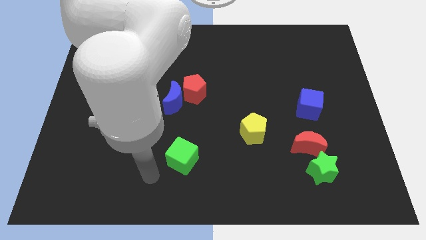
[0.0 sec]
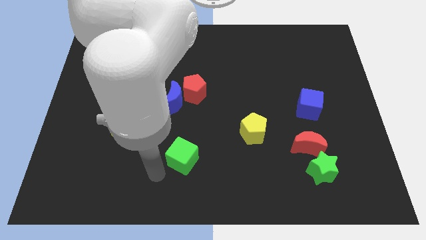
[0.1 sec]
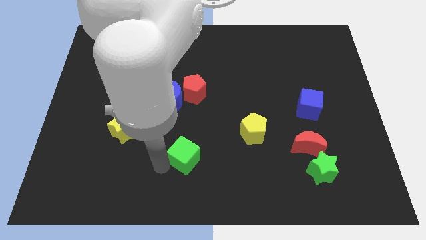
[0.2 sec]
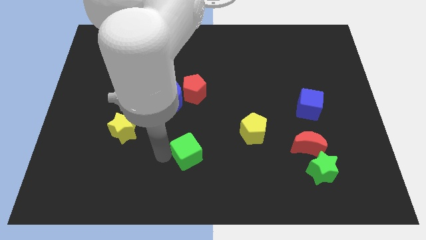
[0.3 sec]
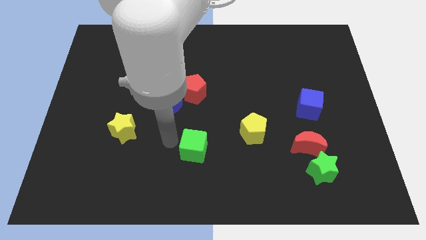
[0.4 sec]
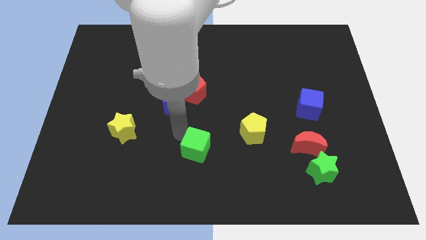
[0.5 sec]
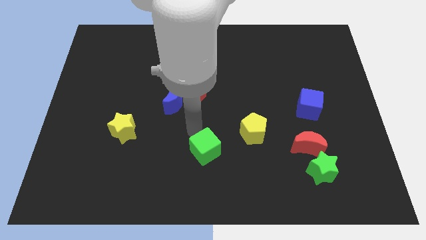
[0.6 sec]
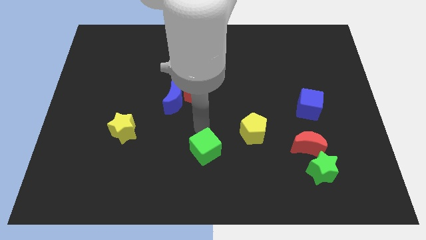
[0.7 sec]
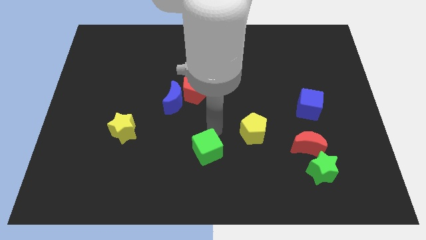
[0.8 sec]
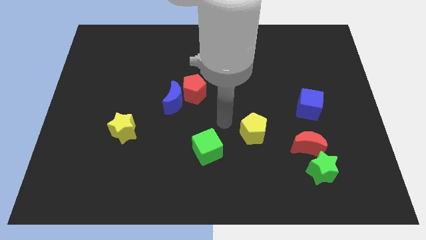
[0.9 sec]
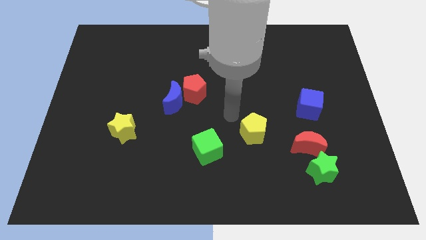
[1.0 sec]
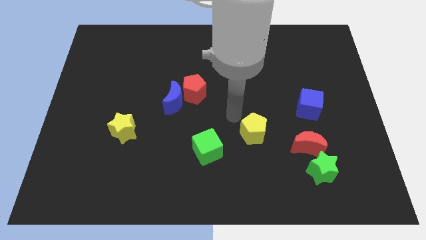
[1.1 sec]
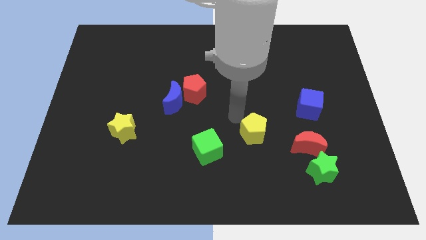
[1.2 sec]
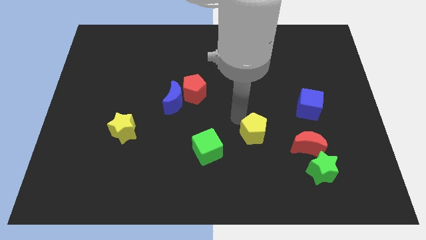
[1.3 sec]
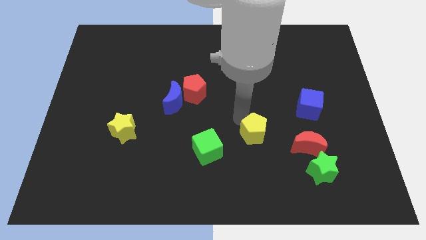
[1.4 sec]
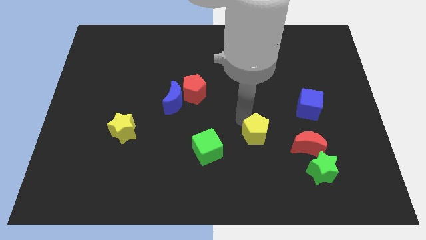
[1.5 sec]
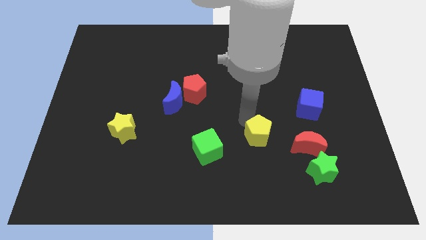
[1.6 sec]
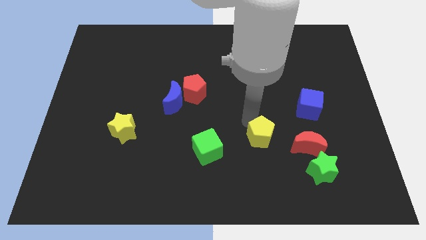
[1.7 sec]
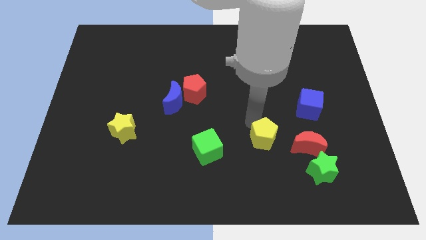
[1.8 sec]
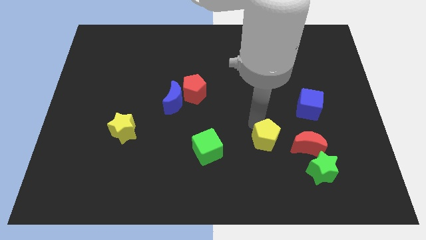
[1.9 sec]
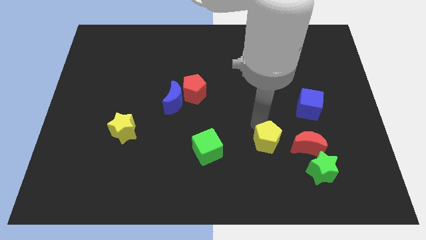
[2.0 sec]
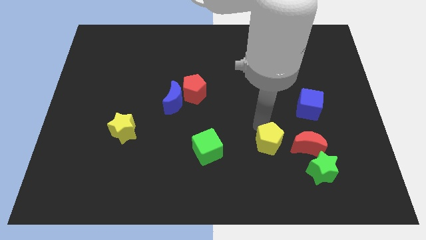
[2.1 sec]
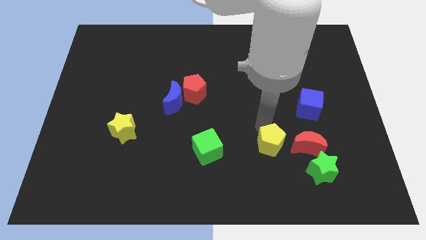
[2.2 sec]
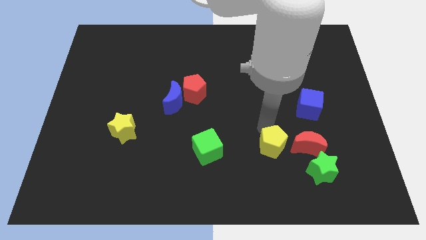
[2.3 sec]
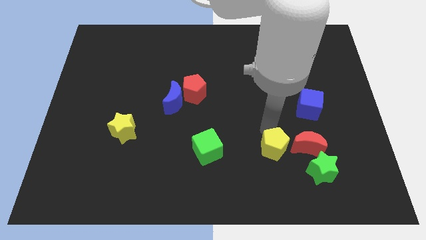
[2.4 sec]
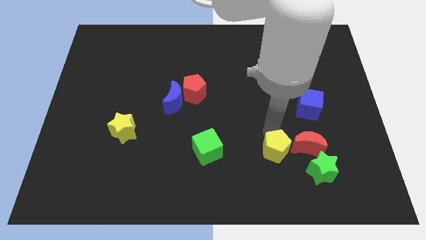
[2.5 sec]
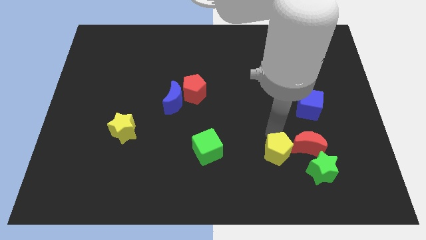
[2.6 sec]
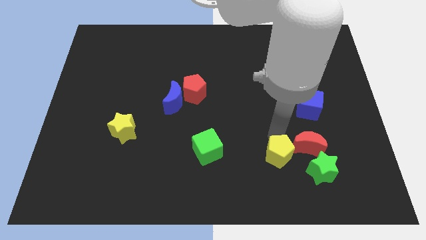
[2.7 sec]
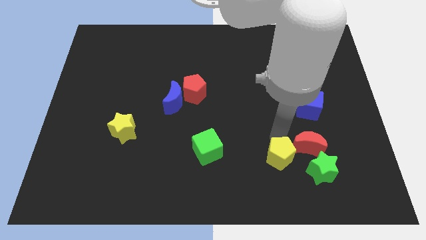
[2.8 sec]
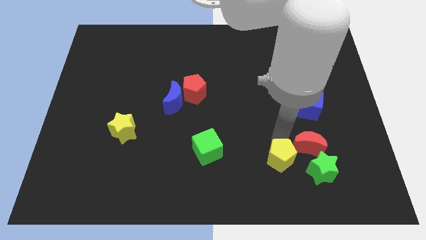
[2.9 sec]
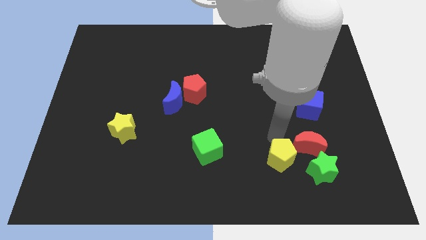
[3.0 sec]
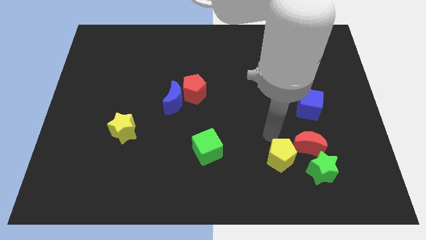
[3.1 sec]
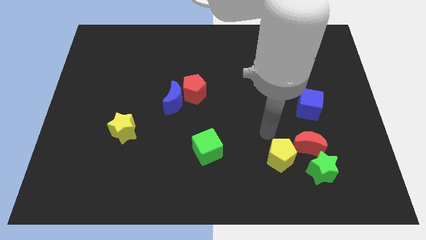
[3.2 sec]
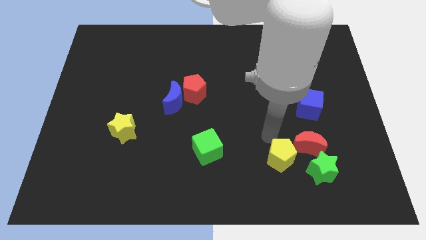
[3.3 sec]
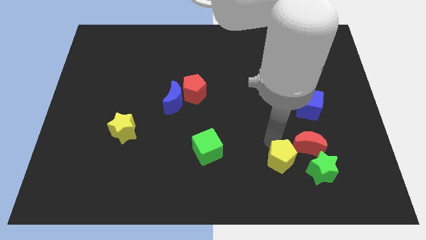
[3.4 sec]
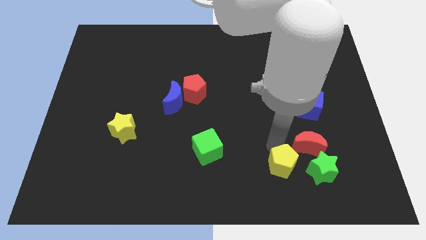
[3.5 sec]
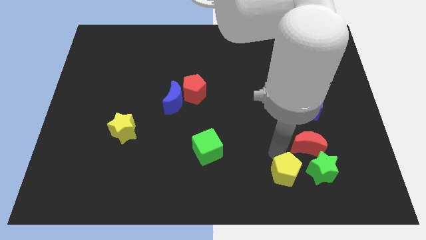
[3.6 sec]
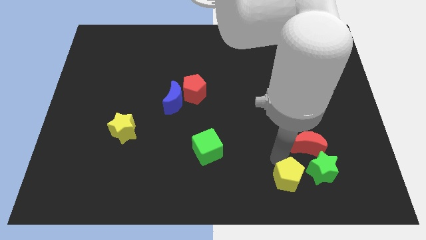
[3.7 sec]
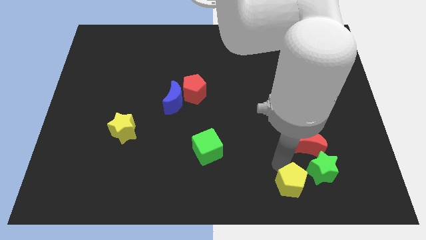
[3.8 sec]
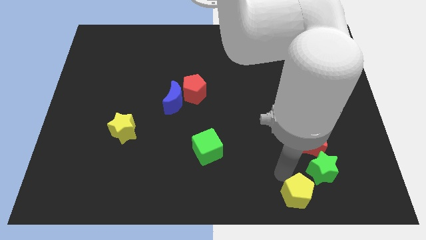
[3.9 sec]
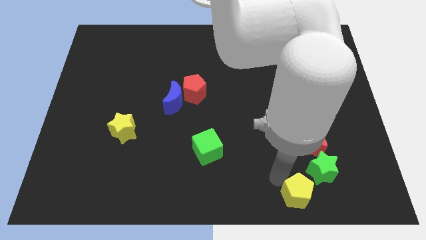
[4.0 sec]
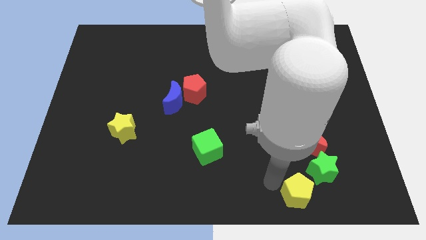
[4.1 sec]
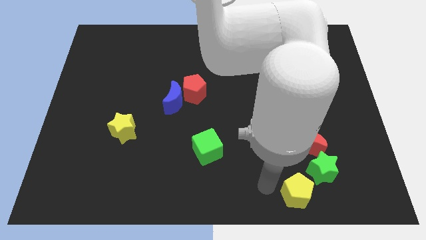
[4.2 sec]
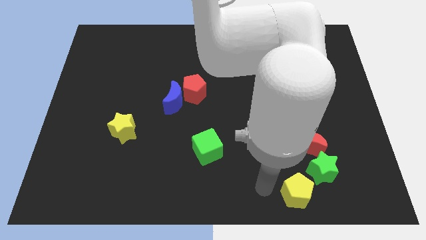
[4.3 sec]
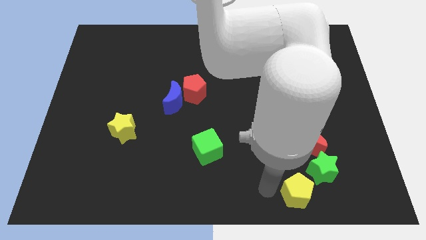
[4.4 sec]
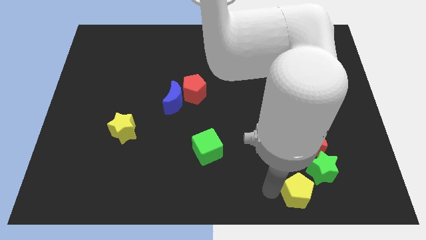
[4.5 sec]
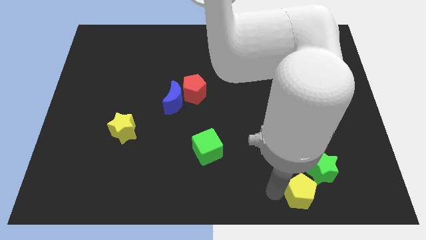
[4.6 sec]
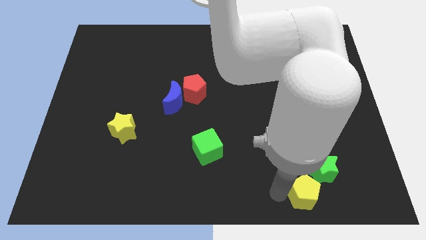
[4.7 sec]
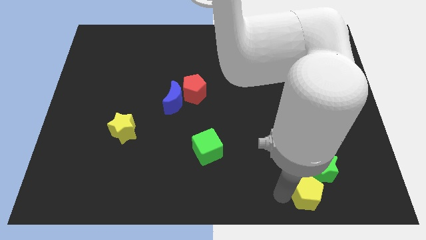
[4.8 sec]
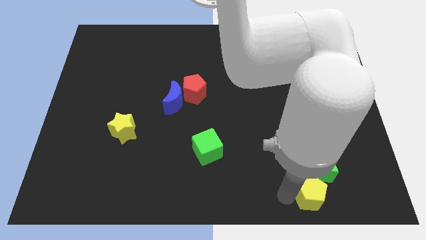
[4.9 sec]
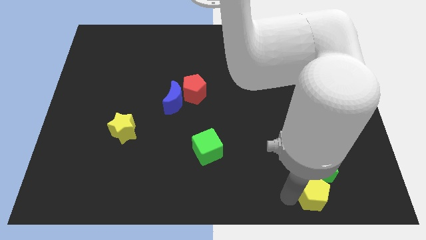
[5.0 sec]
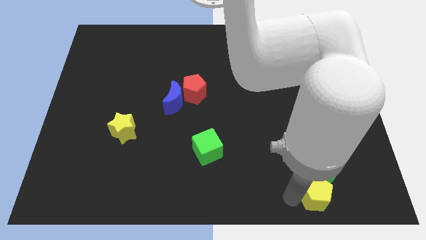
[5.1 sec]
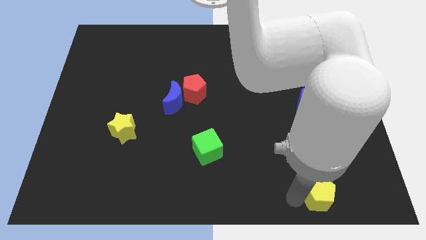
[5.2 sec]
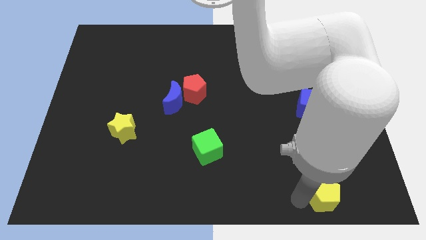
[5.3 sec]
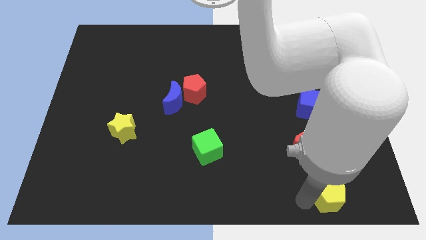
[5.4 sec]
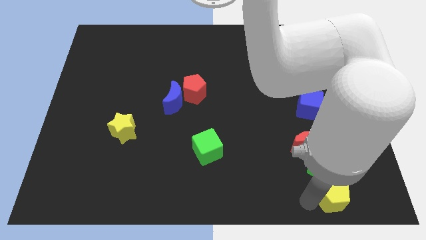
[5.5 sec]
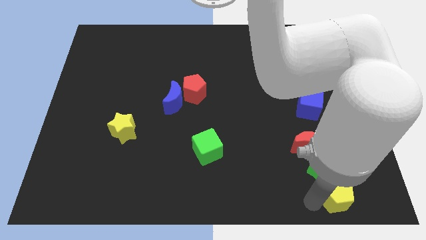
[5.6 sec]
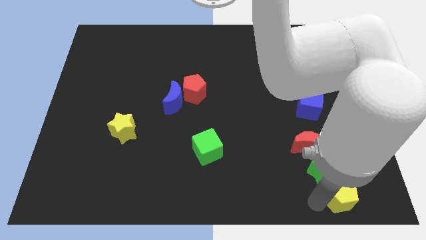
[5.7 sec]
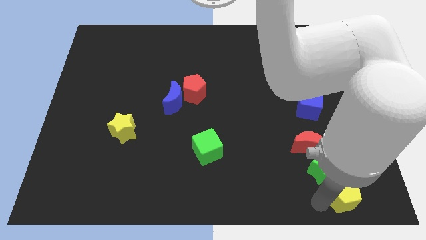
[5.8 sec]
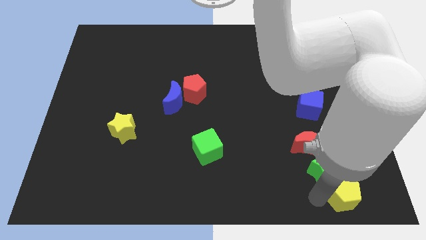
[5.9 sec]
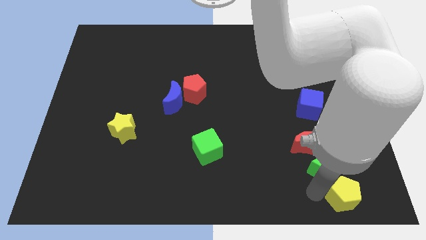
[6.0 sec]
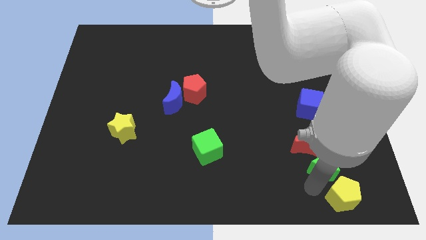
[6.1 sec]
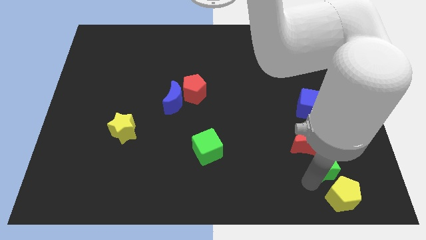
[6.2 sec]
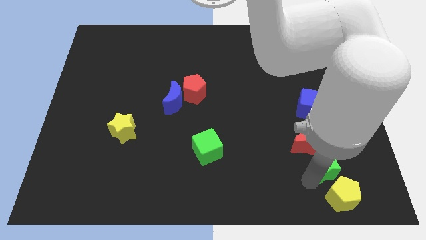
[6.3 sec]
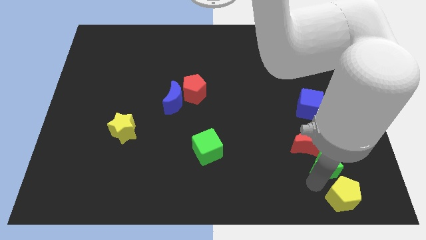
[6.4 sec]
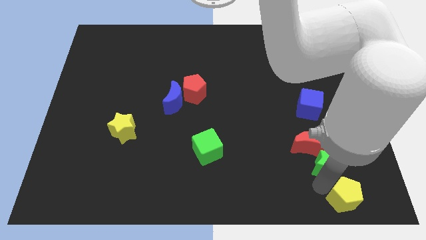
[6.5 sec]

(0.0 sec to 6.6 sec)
slide the yellow pentagon to the lower right corner
